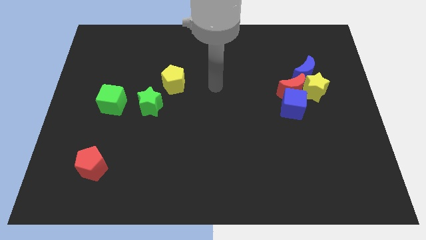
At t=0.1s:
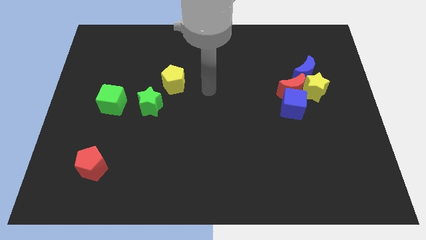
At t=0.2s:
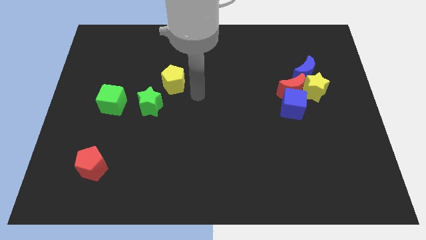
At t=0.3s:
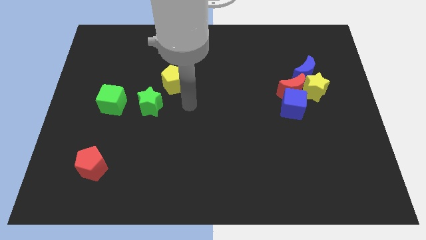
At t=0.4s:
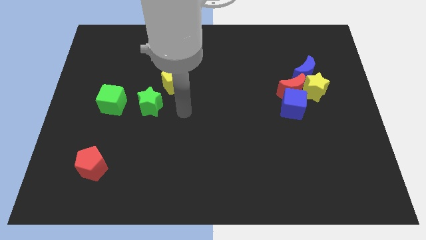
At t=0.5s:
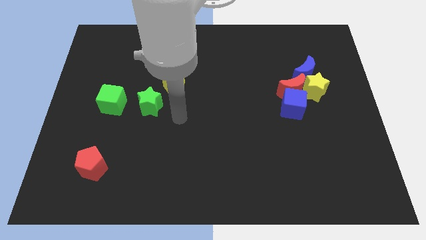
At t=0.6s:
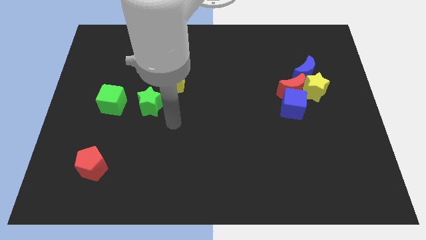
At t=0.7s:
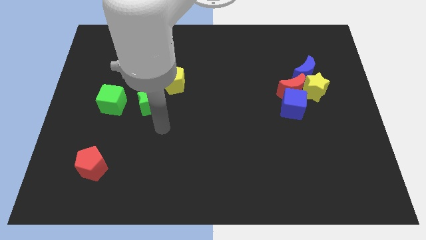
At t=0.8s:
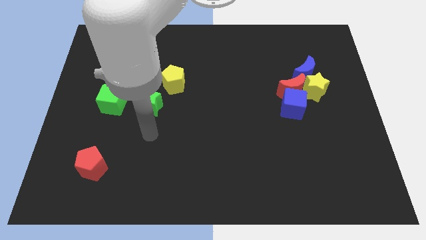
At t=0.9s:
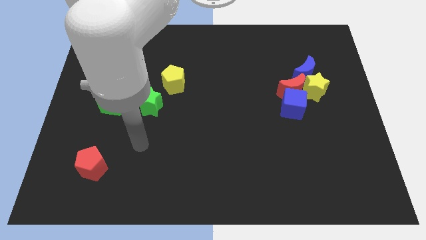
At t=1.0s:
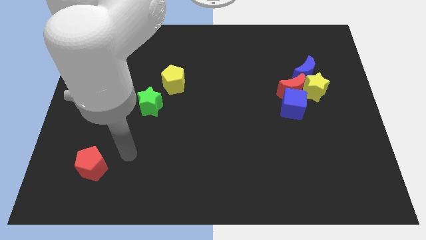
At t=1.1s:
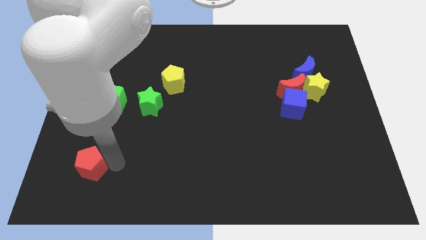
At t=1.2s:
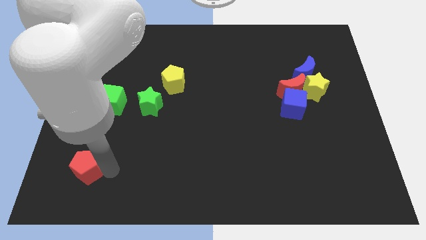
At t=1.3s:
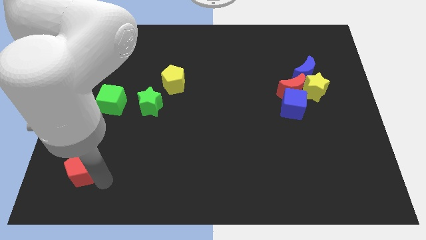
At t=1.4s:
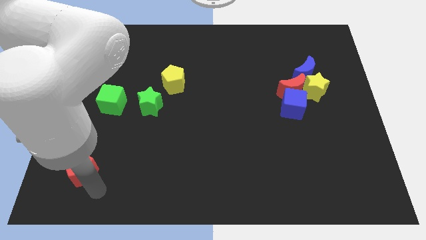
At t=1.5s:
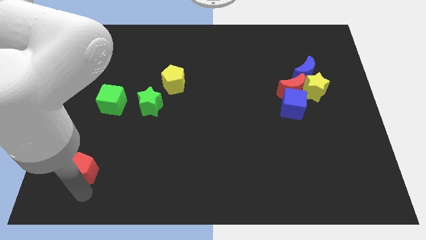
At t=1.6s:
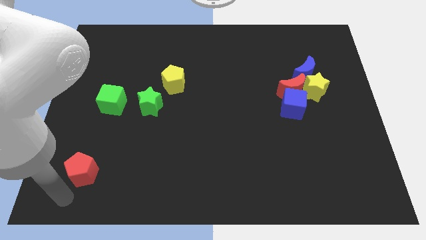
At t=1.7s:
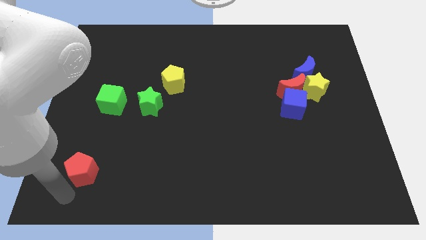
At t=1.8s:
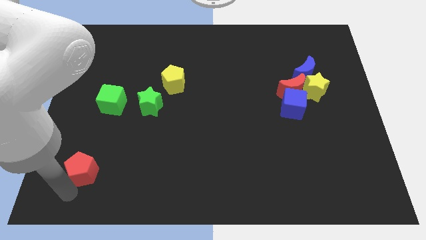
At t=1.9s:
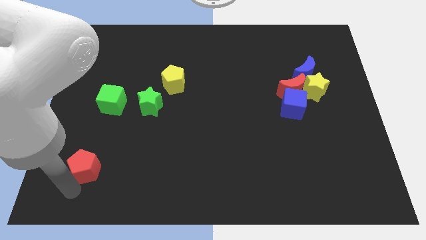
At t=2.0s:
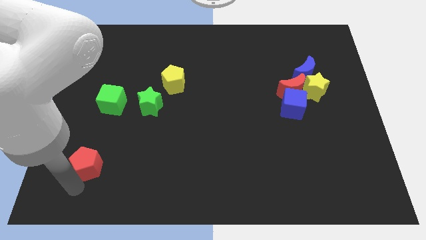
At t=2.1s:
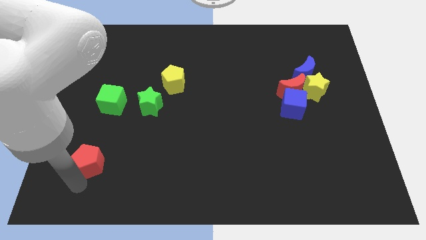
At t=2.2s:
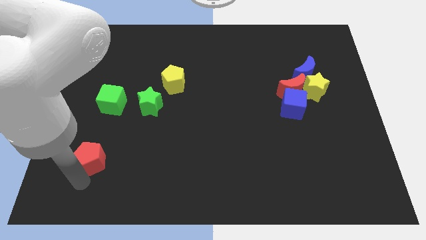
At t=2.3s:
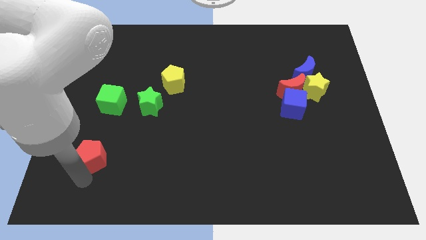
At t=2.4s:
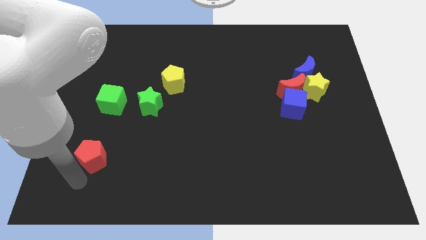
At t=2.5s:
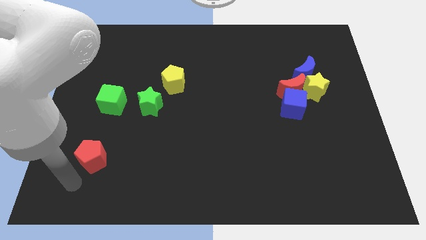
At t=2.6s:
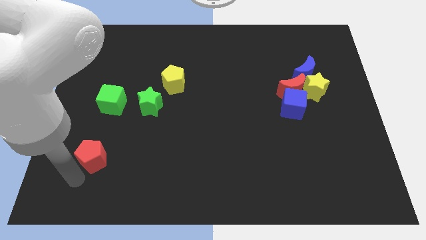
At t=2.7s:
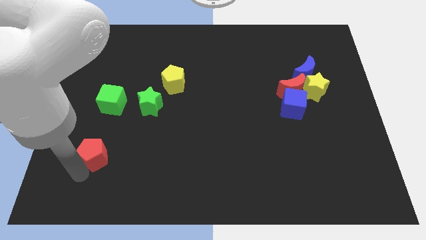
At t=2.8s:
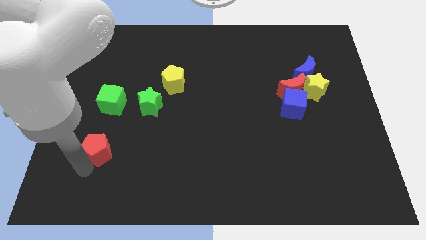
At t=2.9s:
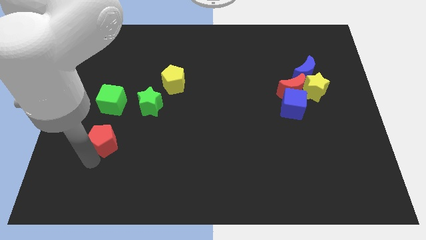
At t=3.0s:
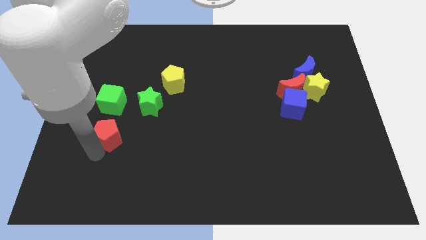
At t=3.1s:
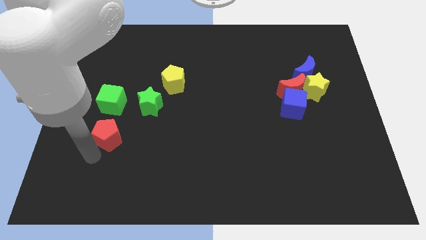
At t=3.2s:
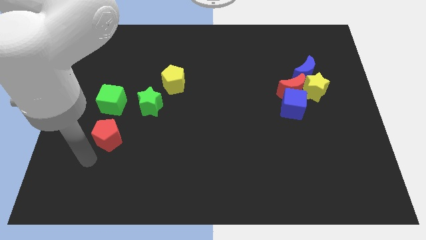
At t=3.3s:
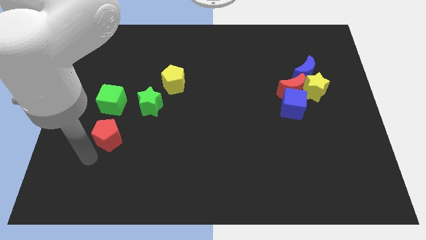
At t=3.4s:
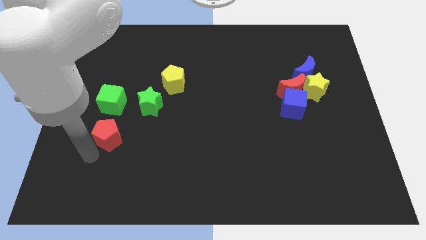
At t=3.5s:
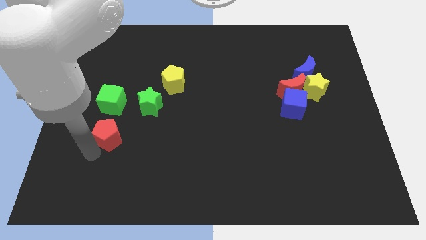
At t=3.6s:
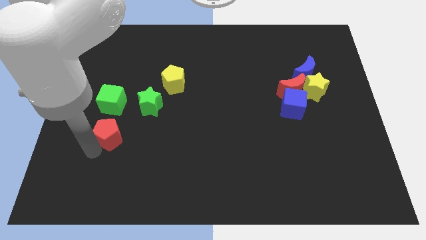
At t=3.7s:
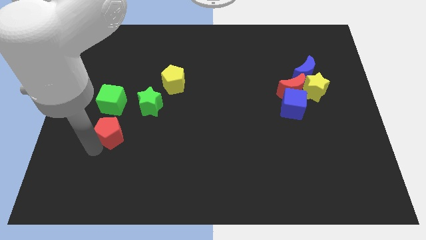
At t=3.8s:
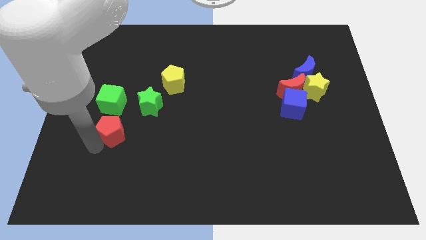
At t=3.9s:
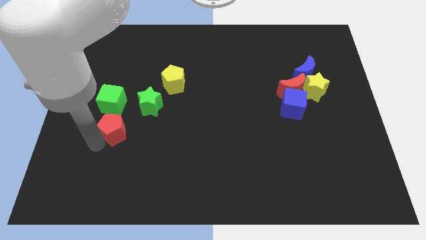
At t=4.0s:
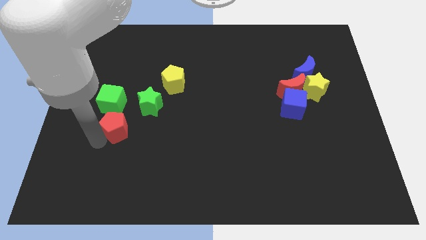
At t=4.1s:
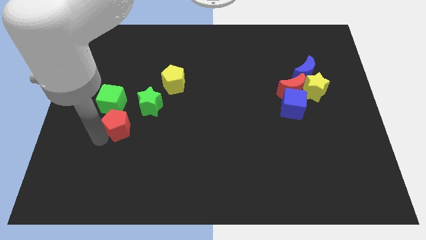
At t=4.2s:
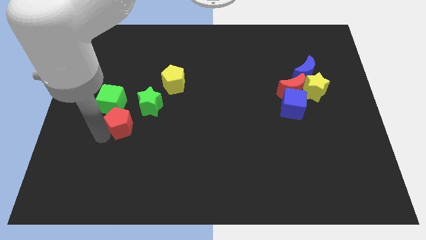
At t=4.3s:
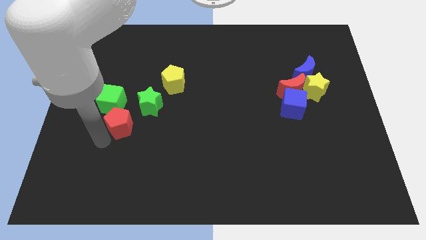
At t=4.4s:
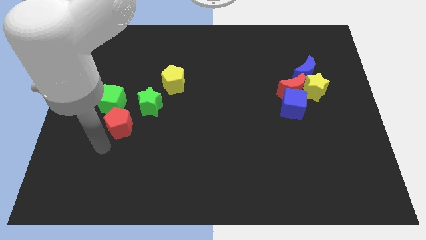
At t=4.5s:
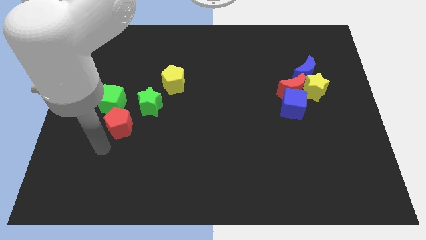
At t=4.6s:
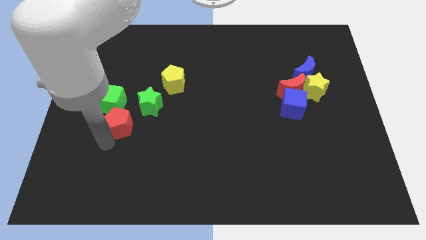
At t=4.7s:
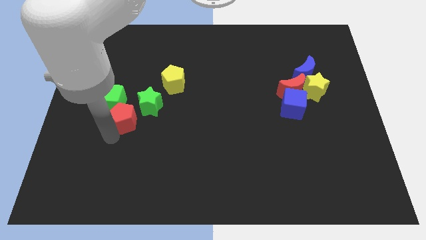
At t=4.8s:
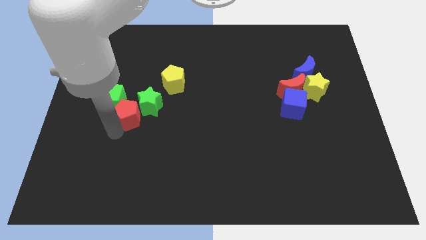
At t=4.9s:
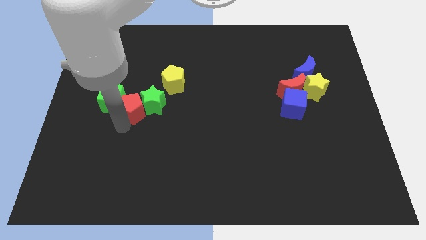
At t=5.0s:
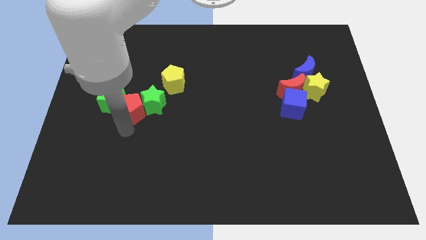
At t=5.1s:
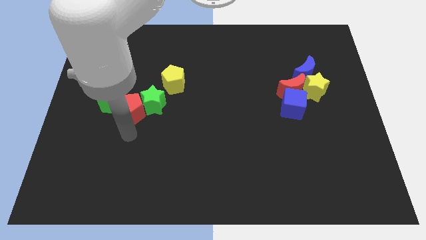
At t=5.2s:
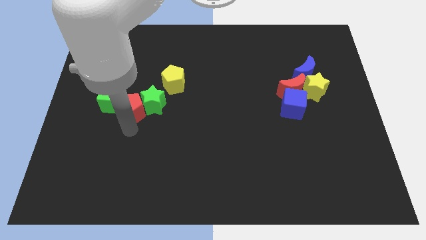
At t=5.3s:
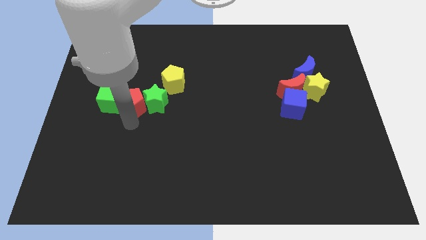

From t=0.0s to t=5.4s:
put the red pentagon diagonally up and to the left of the green star

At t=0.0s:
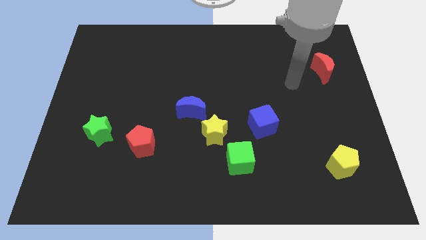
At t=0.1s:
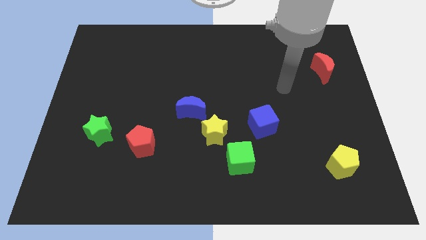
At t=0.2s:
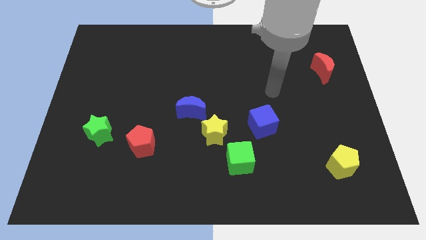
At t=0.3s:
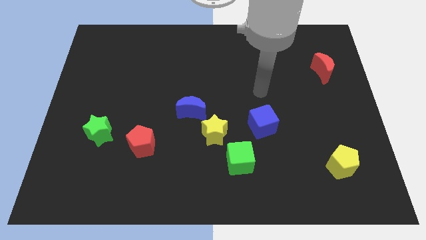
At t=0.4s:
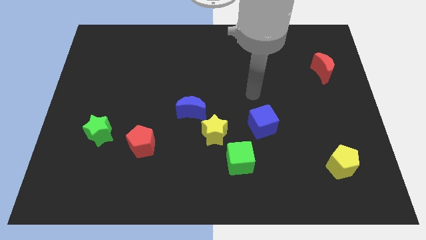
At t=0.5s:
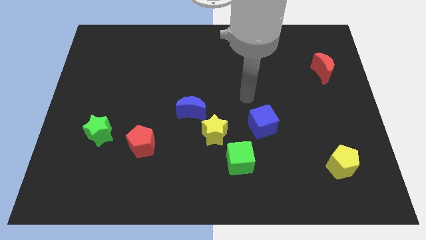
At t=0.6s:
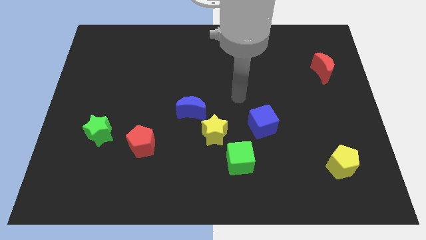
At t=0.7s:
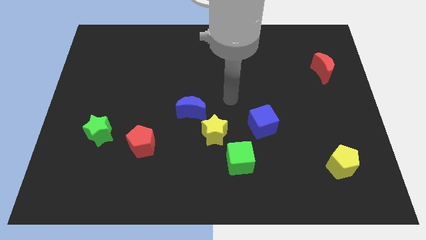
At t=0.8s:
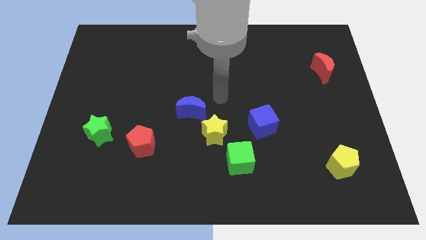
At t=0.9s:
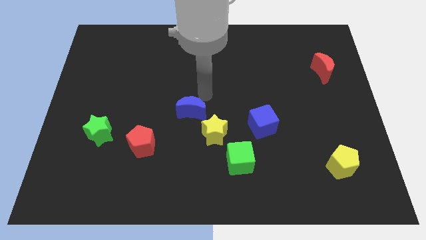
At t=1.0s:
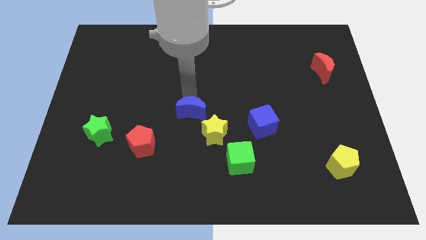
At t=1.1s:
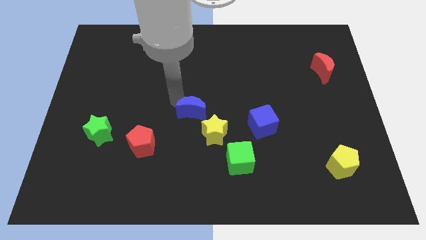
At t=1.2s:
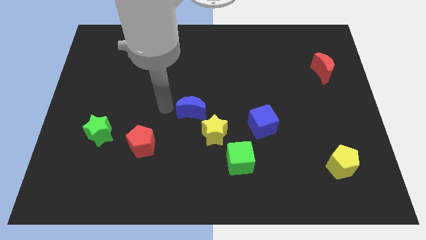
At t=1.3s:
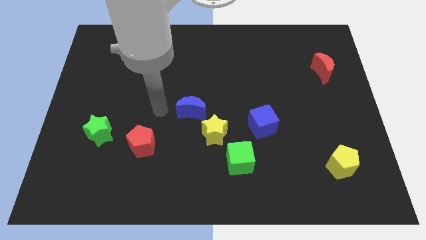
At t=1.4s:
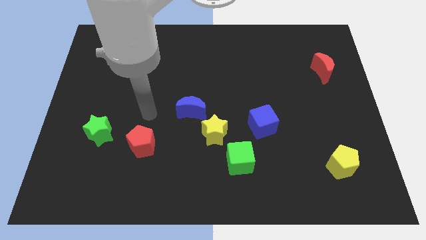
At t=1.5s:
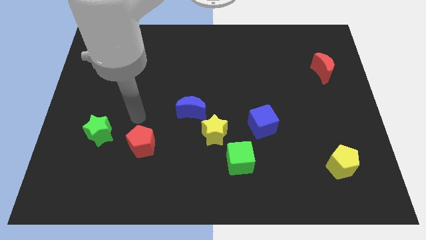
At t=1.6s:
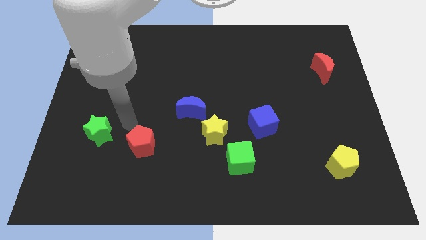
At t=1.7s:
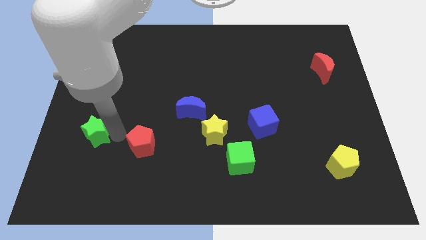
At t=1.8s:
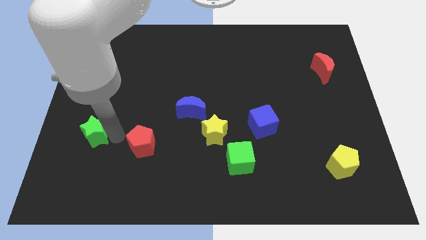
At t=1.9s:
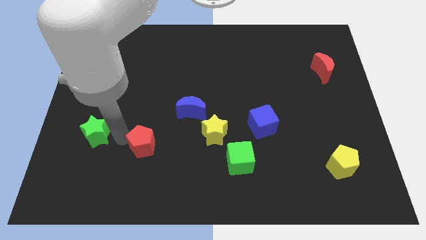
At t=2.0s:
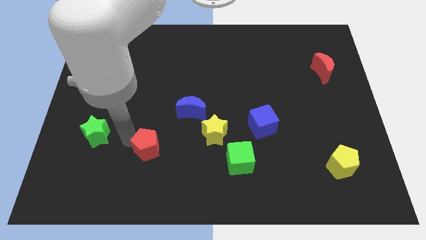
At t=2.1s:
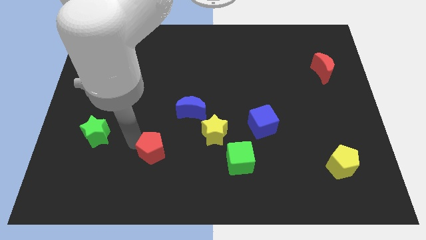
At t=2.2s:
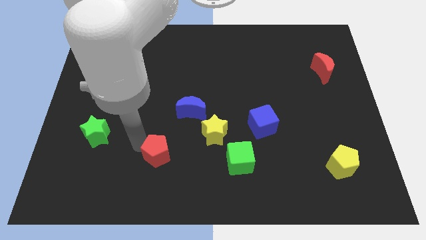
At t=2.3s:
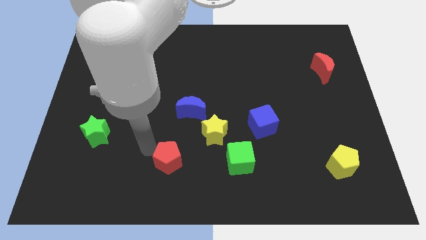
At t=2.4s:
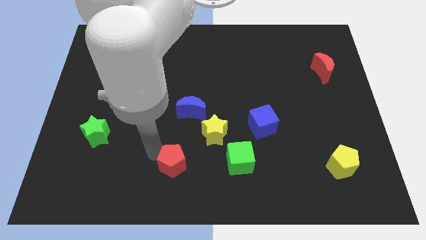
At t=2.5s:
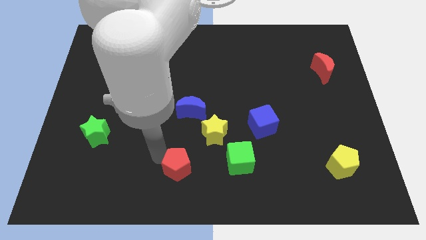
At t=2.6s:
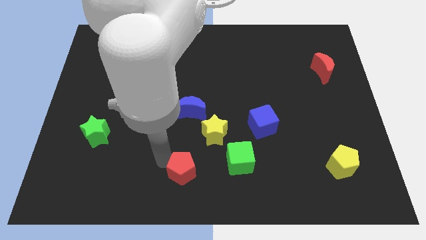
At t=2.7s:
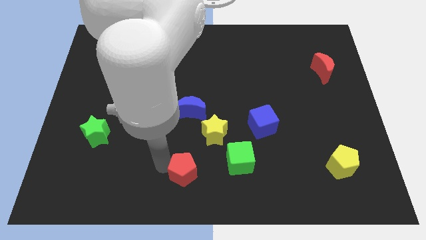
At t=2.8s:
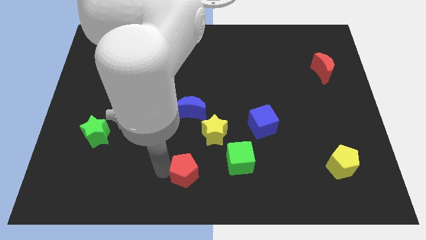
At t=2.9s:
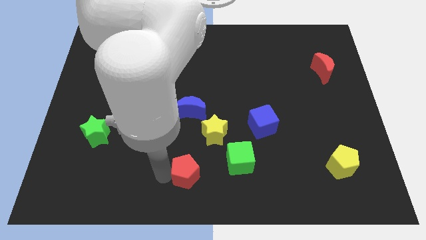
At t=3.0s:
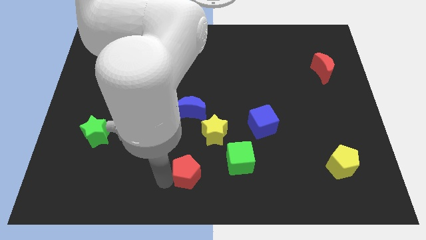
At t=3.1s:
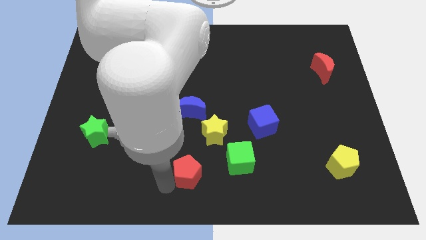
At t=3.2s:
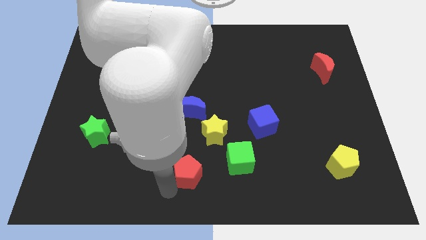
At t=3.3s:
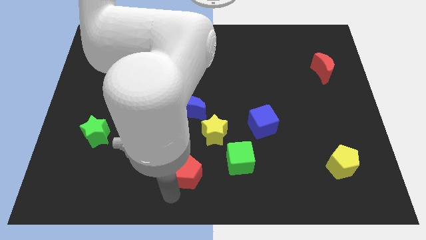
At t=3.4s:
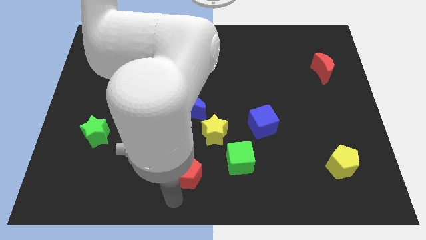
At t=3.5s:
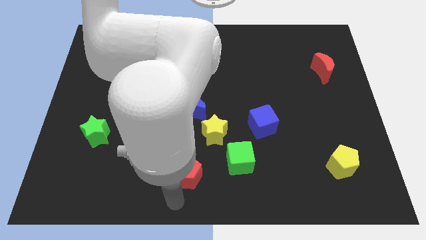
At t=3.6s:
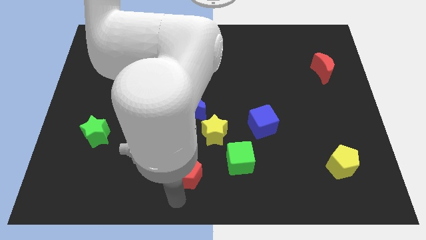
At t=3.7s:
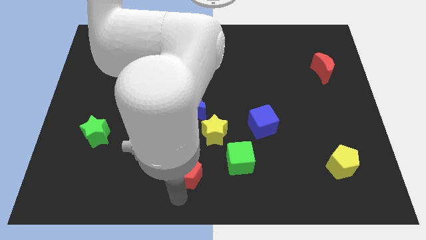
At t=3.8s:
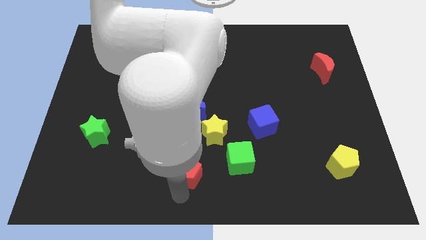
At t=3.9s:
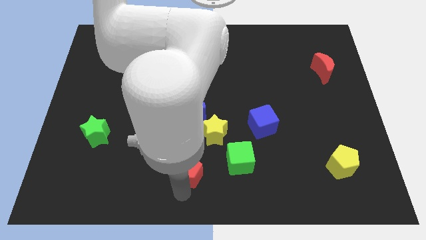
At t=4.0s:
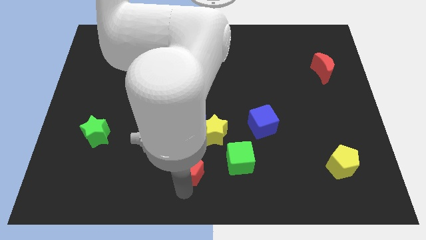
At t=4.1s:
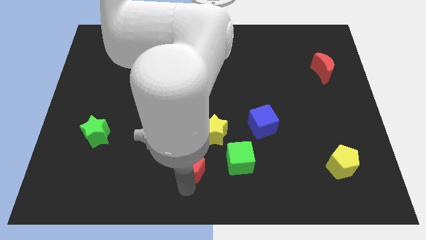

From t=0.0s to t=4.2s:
put the red pentagon to the bottom of the yellow star
